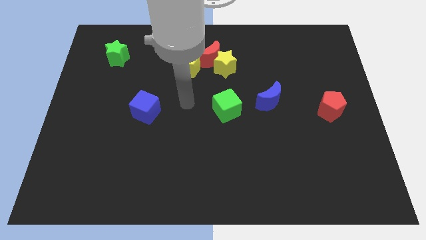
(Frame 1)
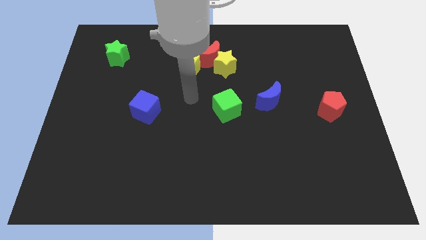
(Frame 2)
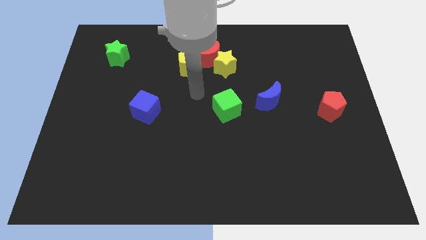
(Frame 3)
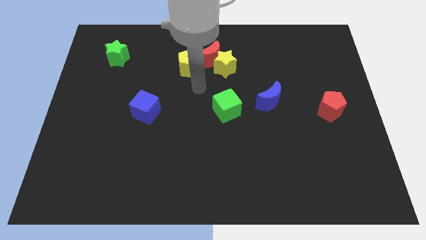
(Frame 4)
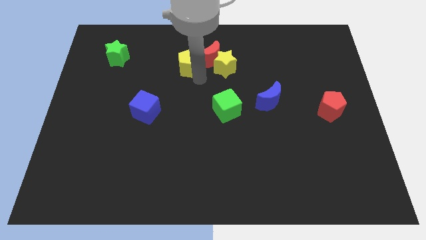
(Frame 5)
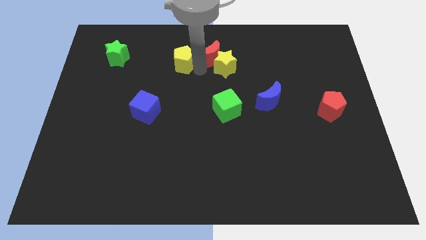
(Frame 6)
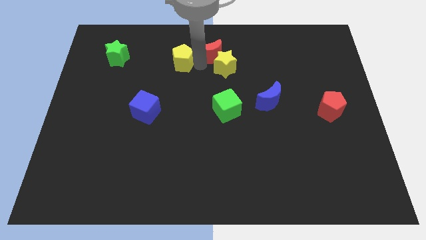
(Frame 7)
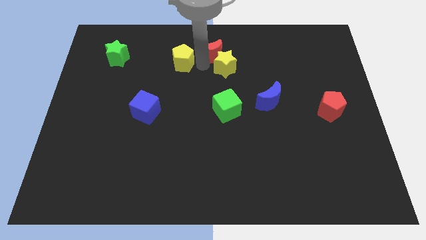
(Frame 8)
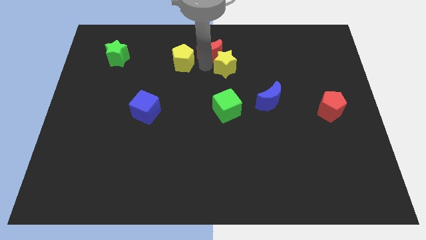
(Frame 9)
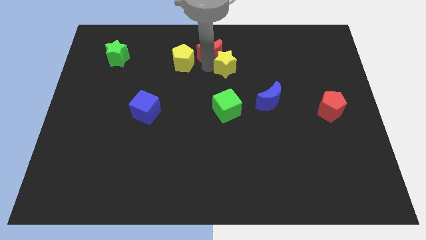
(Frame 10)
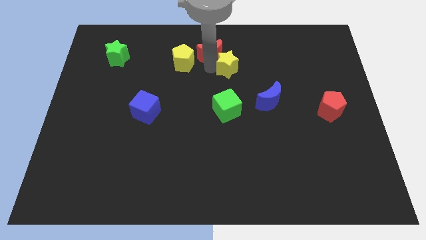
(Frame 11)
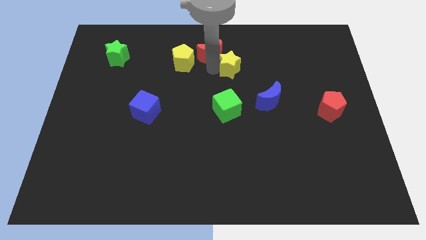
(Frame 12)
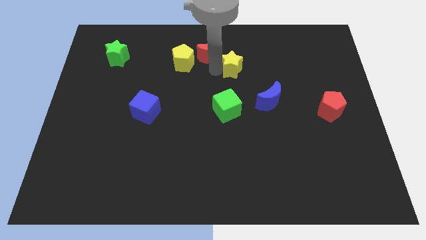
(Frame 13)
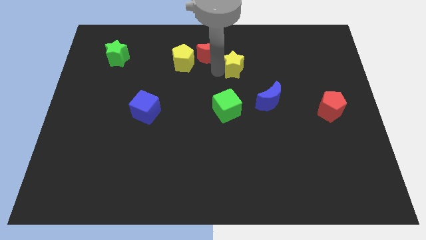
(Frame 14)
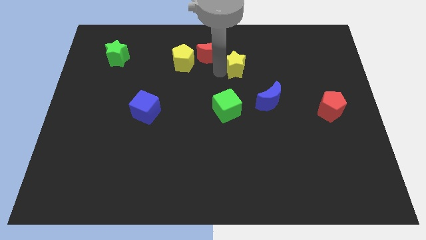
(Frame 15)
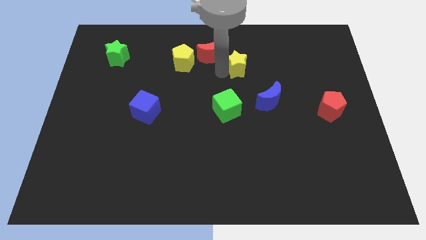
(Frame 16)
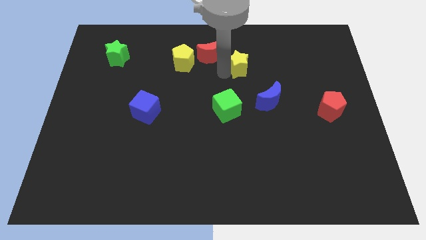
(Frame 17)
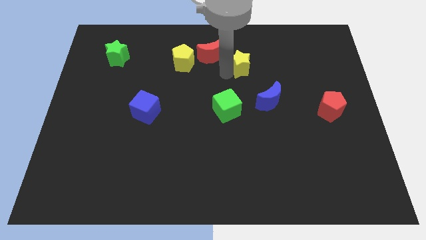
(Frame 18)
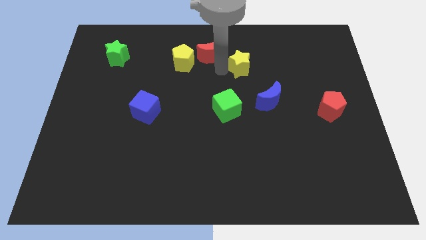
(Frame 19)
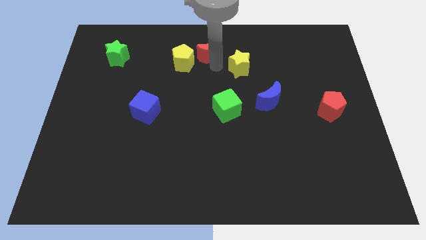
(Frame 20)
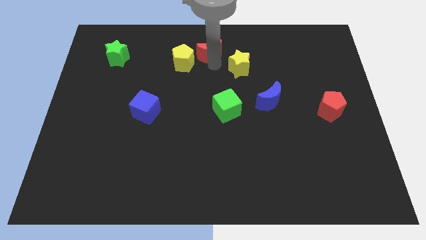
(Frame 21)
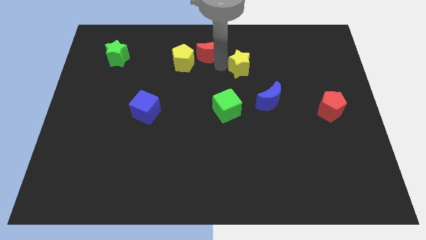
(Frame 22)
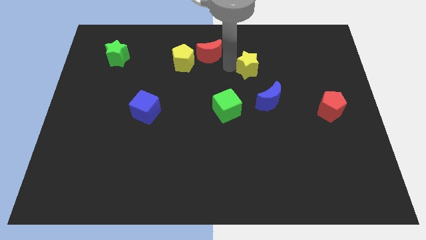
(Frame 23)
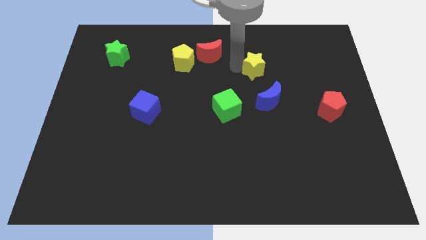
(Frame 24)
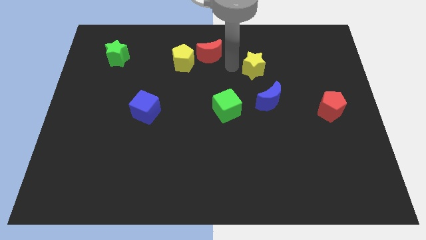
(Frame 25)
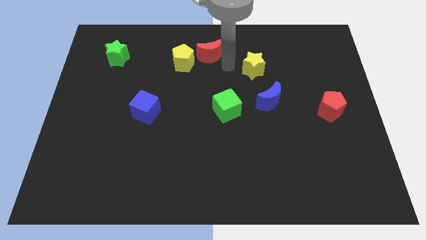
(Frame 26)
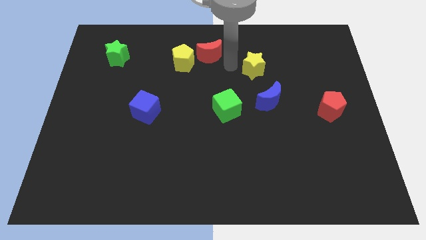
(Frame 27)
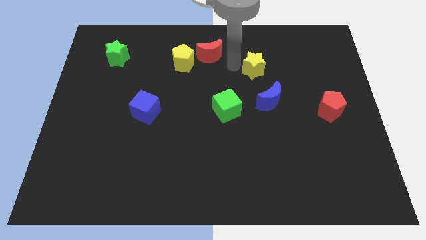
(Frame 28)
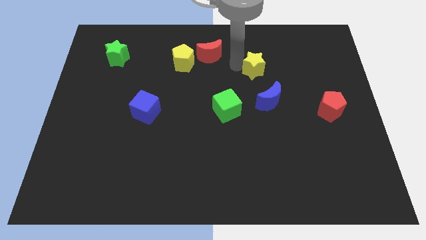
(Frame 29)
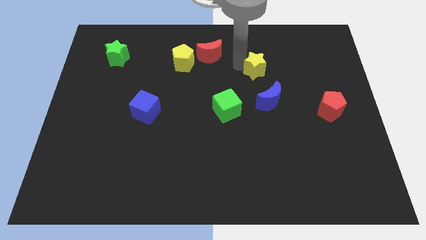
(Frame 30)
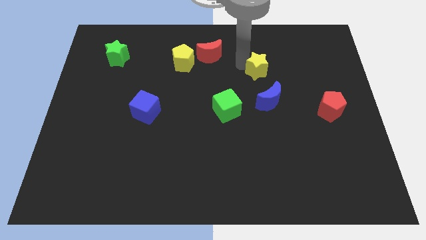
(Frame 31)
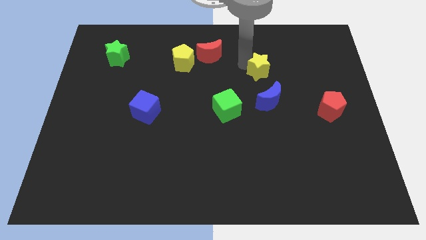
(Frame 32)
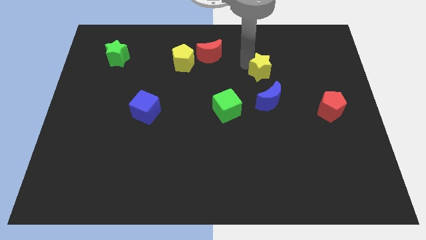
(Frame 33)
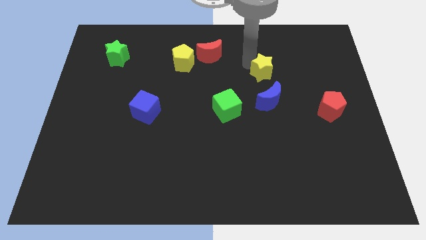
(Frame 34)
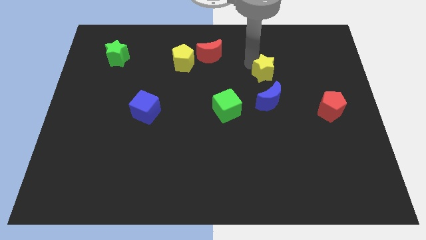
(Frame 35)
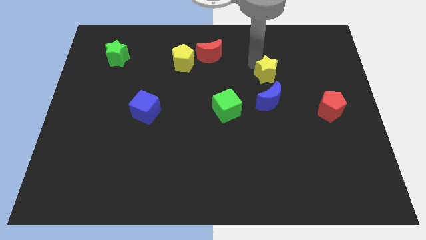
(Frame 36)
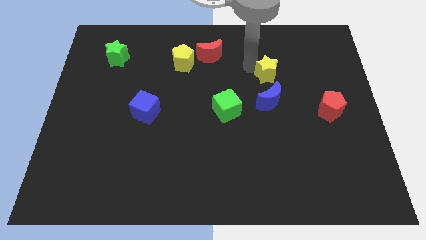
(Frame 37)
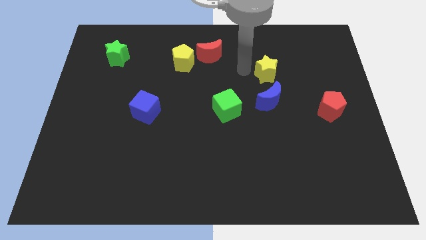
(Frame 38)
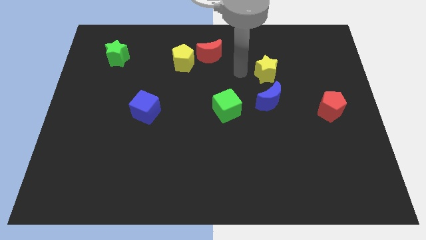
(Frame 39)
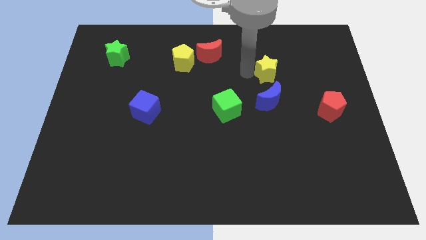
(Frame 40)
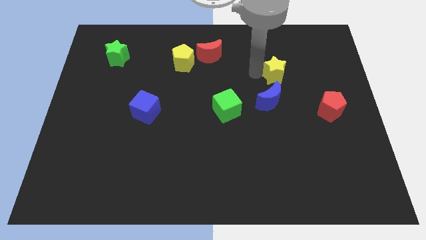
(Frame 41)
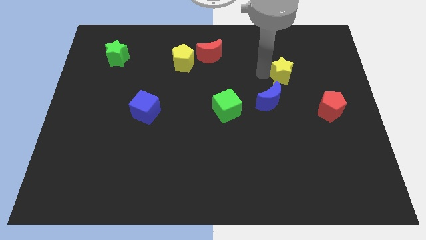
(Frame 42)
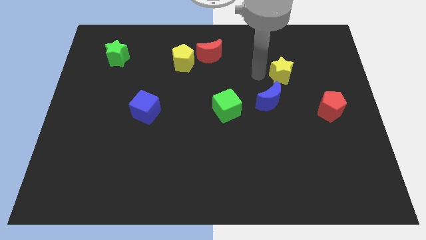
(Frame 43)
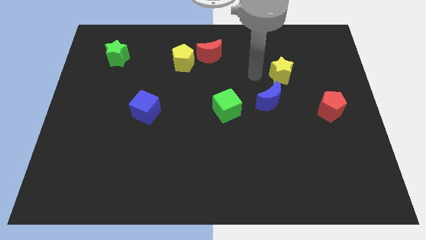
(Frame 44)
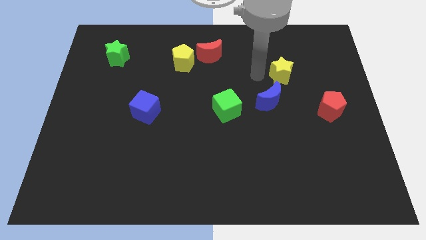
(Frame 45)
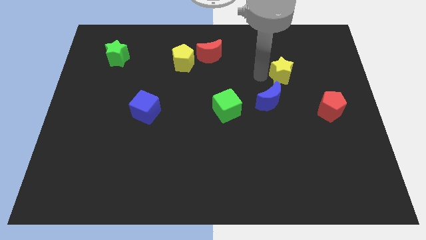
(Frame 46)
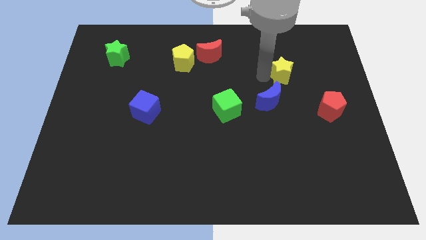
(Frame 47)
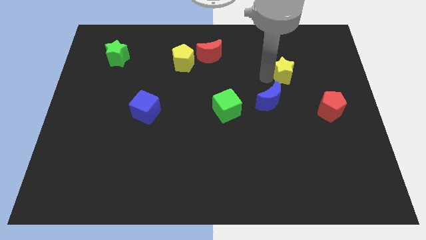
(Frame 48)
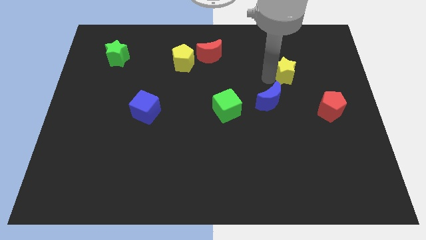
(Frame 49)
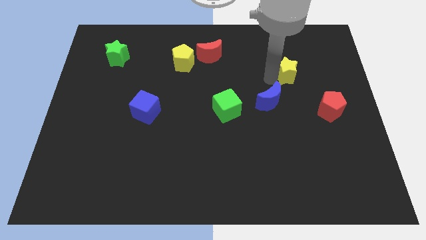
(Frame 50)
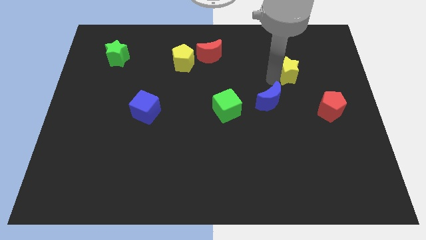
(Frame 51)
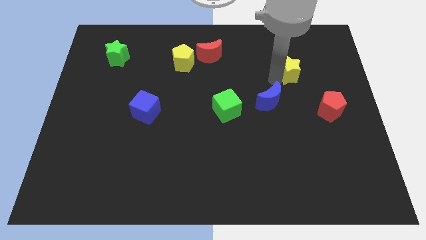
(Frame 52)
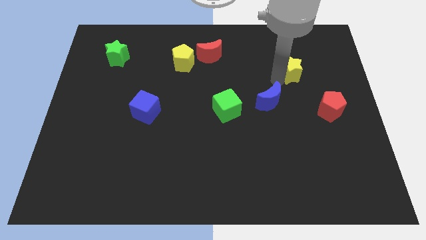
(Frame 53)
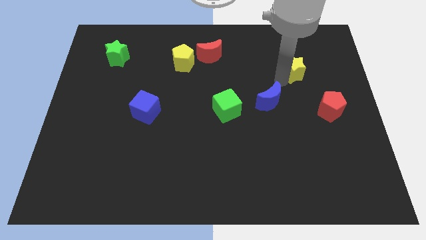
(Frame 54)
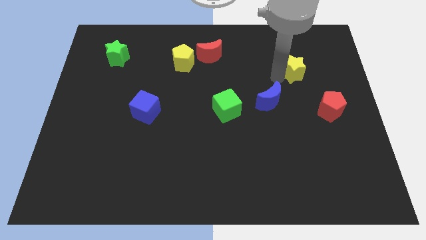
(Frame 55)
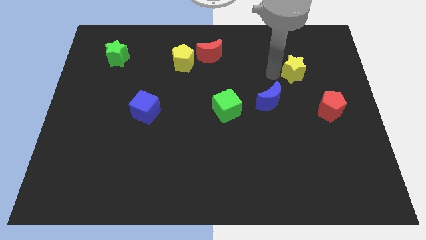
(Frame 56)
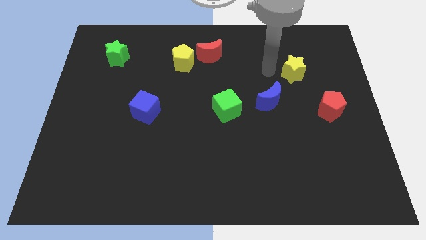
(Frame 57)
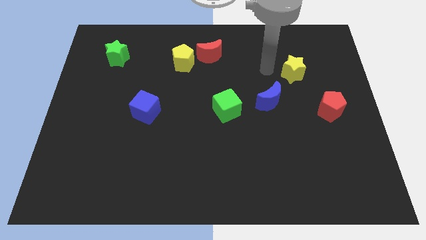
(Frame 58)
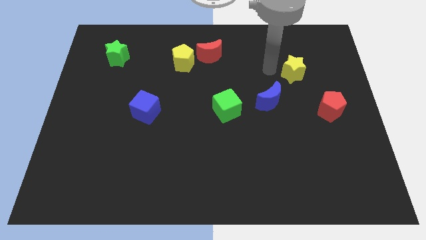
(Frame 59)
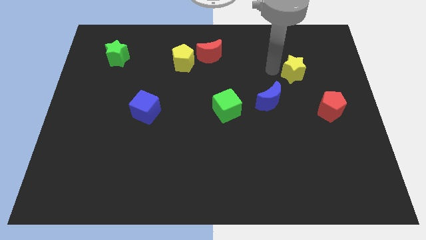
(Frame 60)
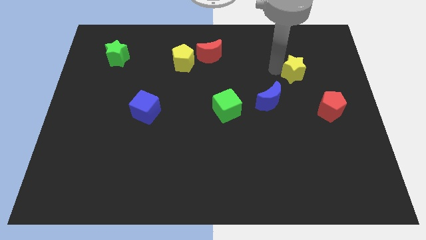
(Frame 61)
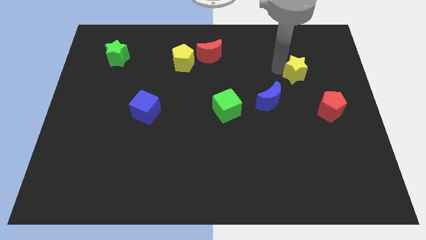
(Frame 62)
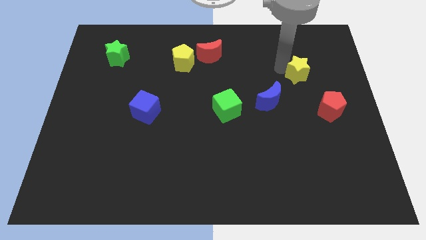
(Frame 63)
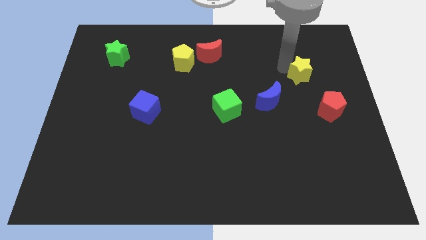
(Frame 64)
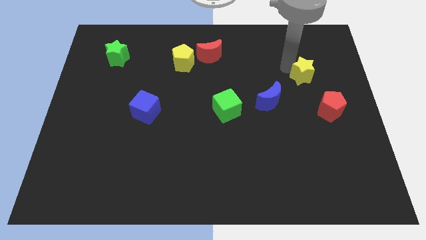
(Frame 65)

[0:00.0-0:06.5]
put the yellow star to the top of the red pentagon

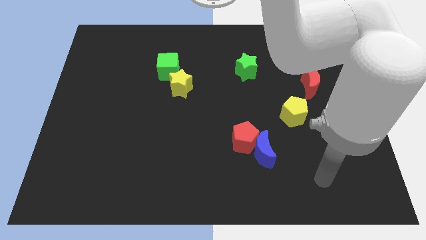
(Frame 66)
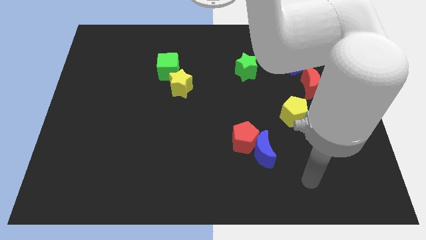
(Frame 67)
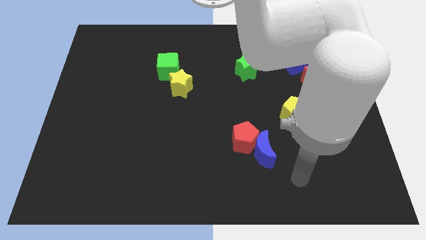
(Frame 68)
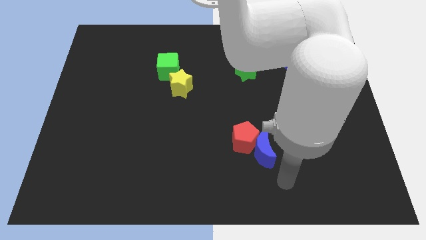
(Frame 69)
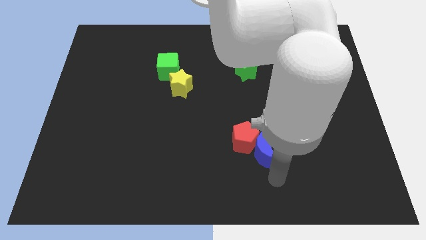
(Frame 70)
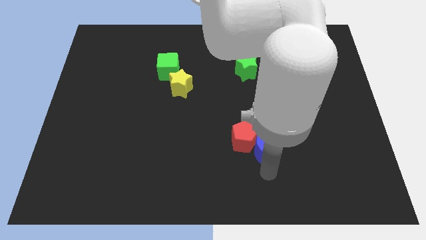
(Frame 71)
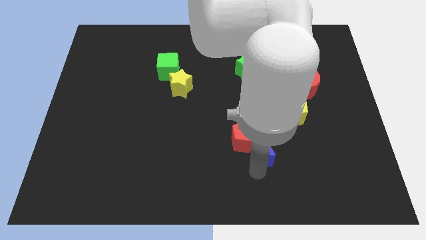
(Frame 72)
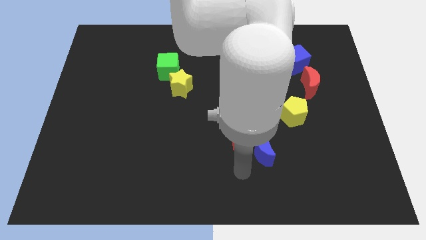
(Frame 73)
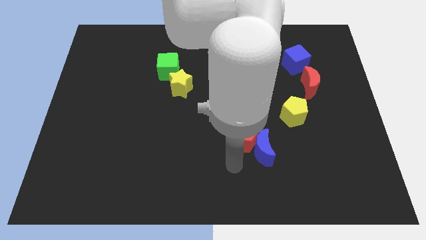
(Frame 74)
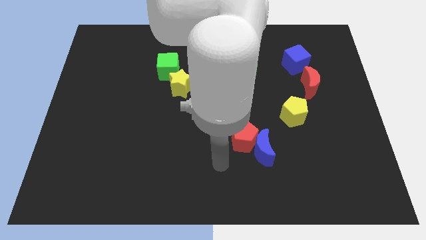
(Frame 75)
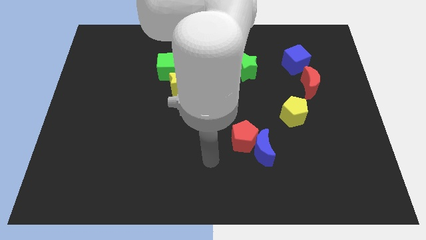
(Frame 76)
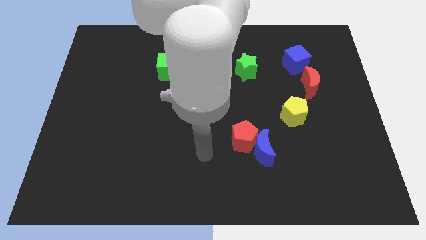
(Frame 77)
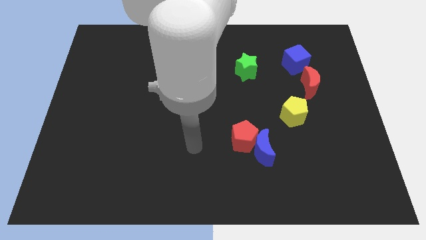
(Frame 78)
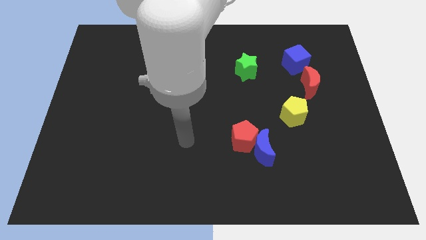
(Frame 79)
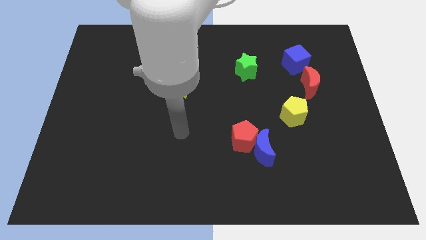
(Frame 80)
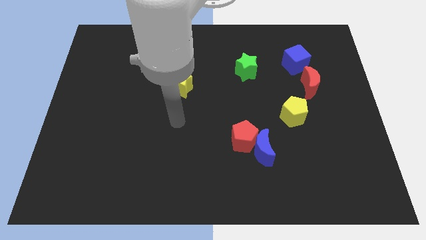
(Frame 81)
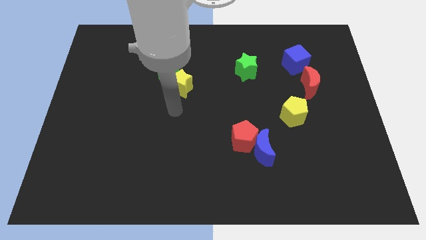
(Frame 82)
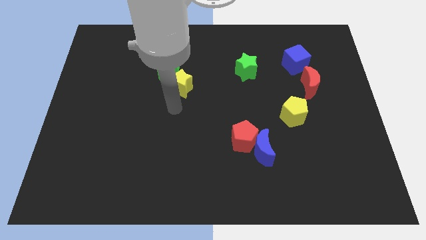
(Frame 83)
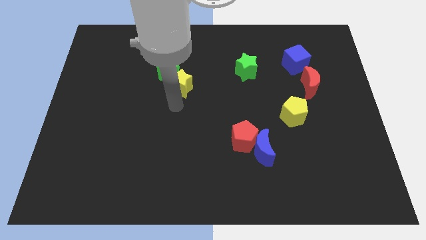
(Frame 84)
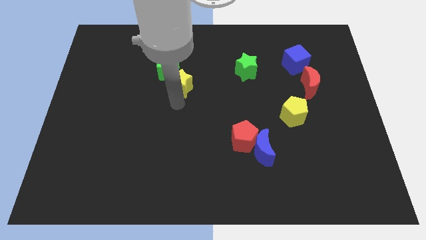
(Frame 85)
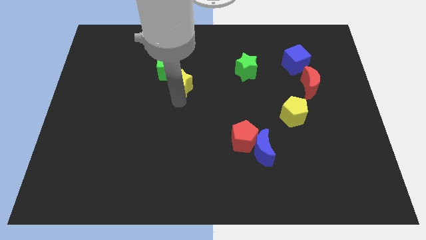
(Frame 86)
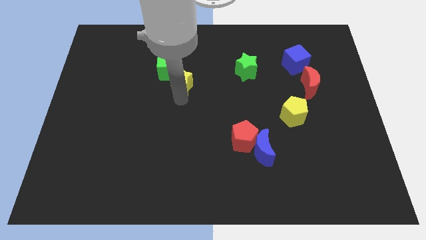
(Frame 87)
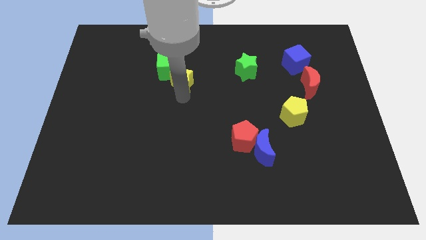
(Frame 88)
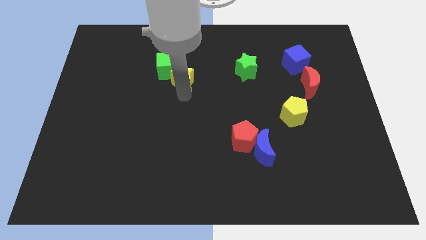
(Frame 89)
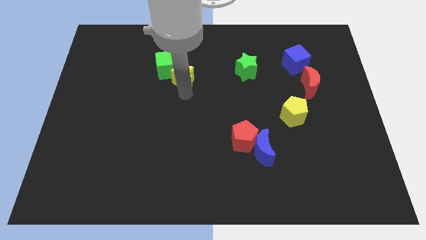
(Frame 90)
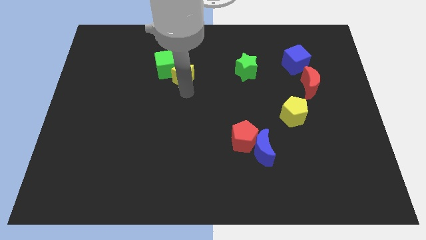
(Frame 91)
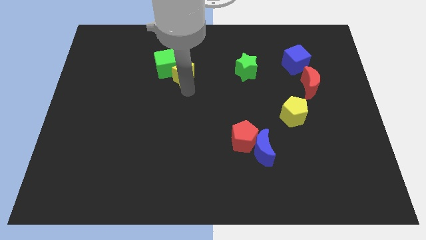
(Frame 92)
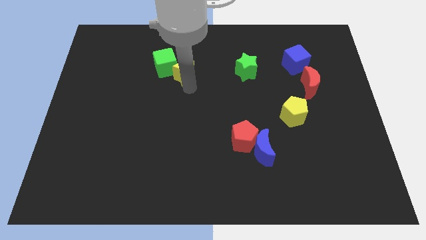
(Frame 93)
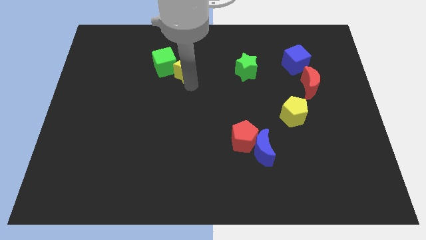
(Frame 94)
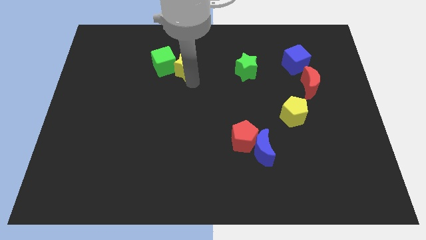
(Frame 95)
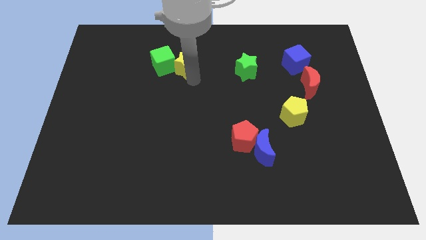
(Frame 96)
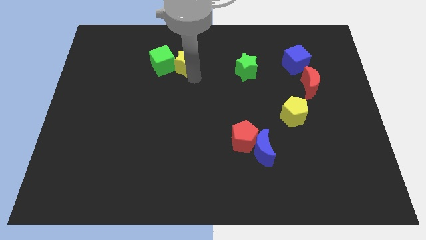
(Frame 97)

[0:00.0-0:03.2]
push the yellow star to the top right of the green cube
